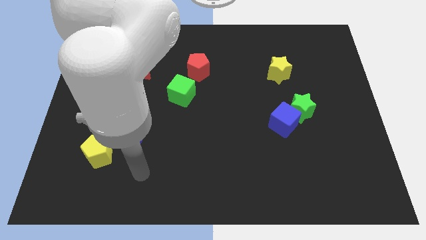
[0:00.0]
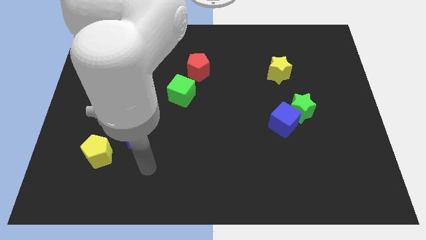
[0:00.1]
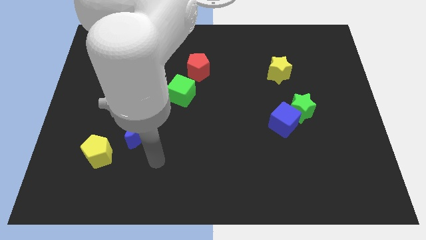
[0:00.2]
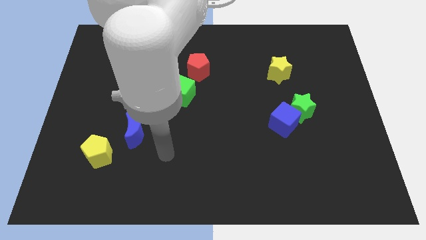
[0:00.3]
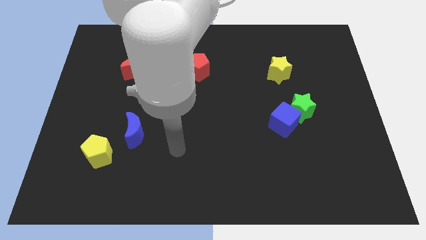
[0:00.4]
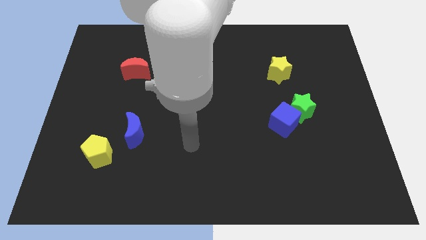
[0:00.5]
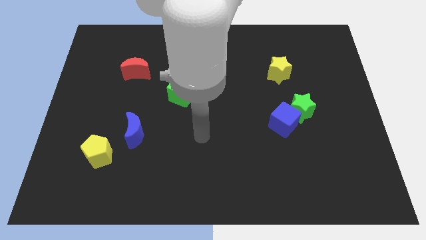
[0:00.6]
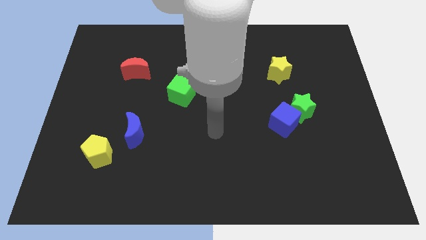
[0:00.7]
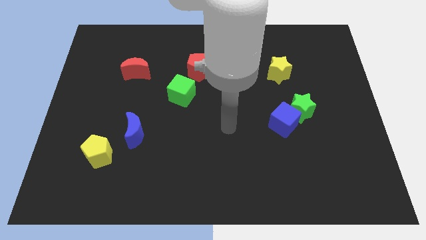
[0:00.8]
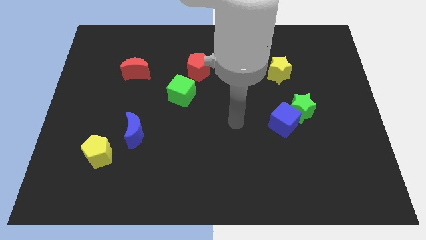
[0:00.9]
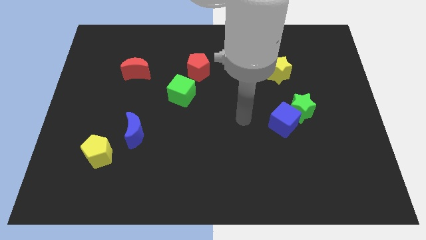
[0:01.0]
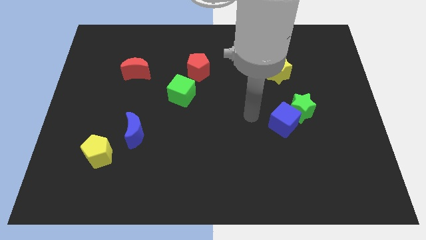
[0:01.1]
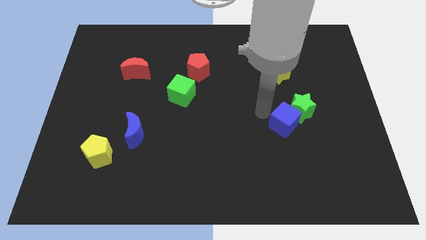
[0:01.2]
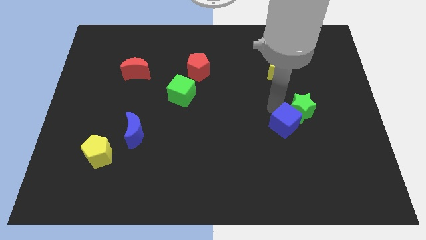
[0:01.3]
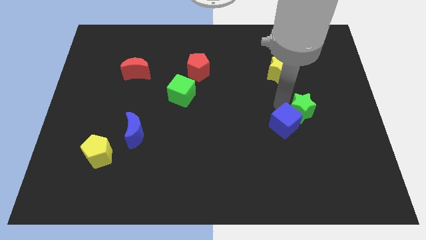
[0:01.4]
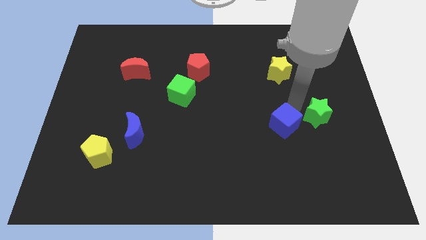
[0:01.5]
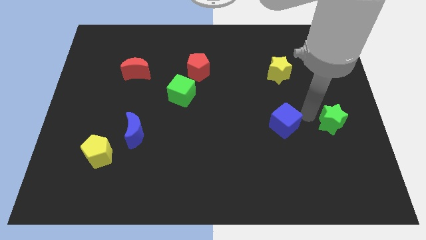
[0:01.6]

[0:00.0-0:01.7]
move the blue cube away from the green star

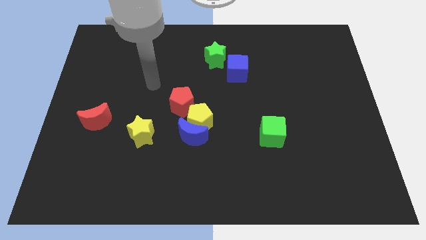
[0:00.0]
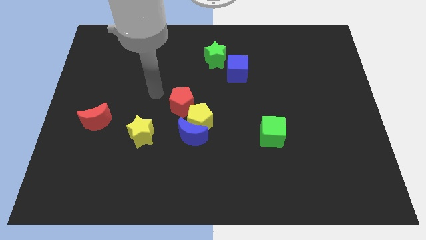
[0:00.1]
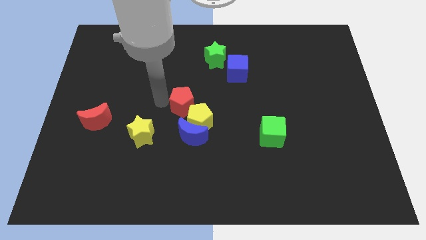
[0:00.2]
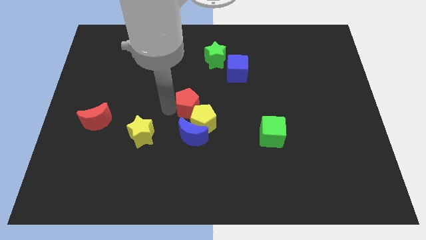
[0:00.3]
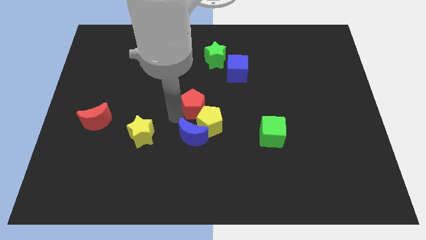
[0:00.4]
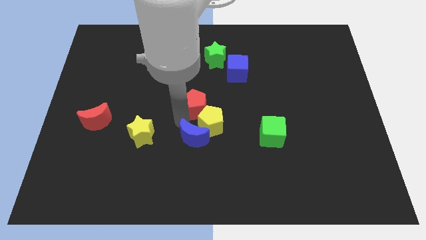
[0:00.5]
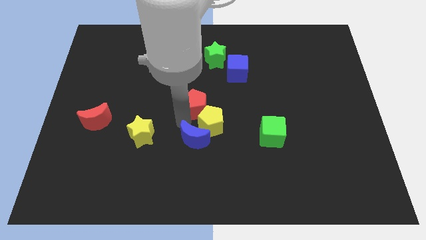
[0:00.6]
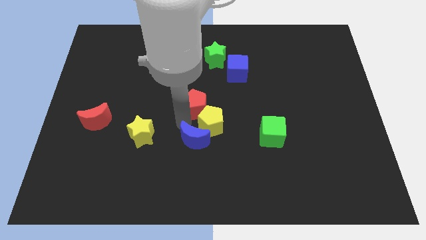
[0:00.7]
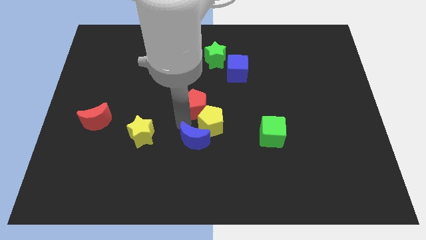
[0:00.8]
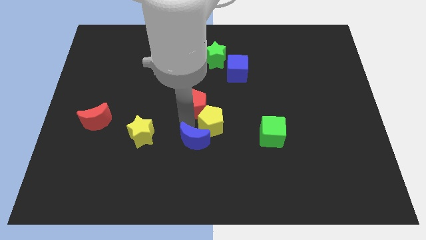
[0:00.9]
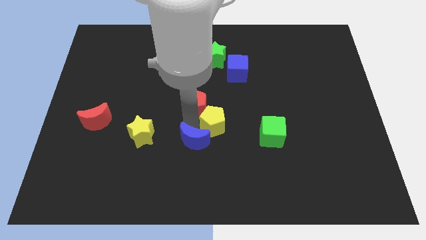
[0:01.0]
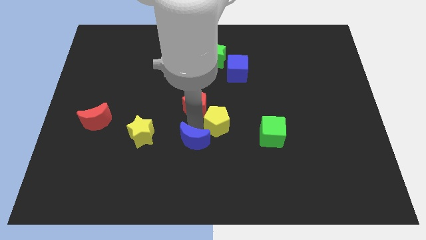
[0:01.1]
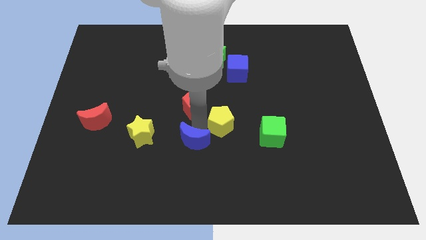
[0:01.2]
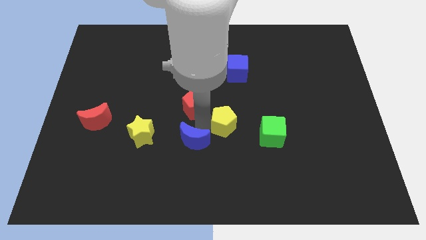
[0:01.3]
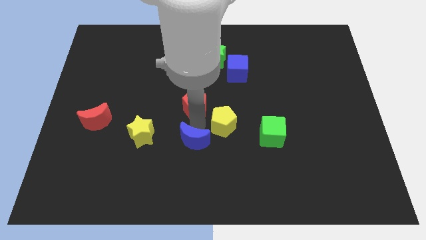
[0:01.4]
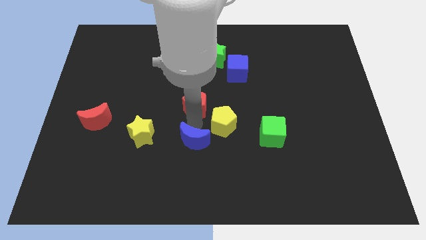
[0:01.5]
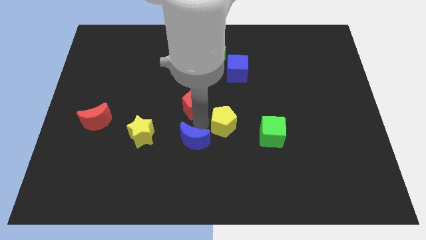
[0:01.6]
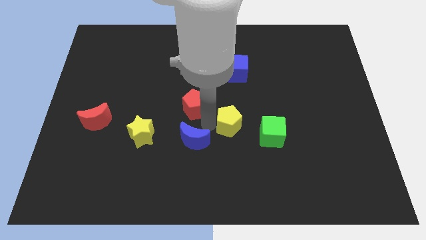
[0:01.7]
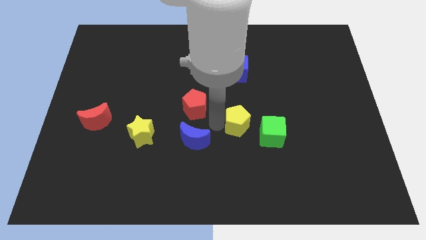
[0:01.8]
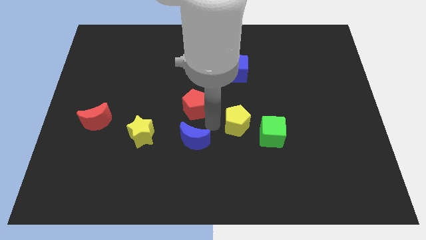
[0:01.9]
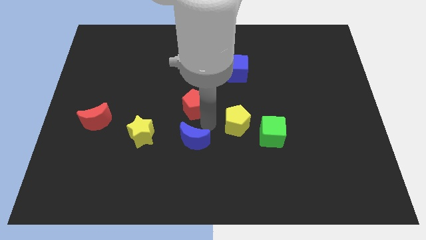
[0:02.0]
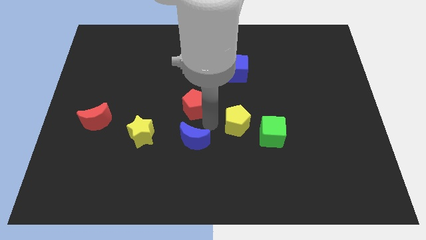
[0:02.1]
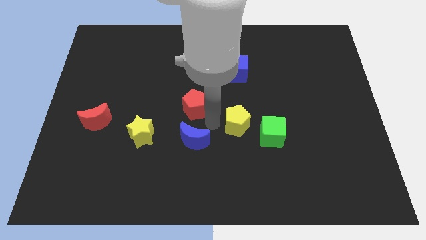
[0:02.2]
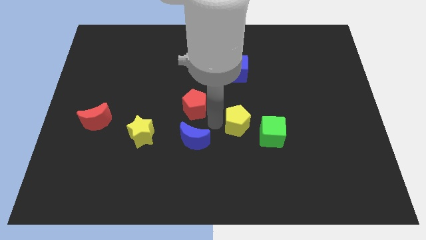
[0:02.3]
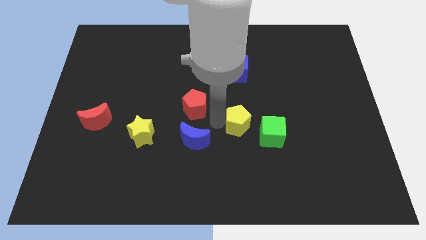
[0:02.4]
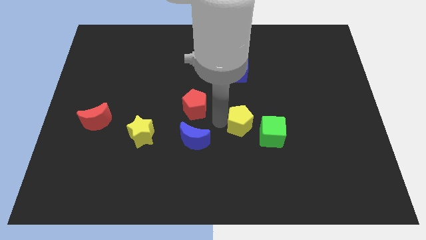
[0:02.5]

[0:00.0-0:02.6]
pull the yellow pentagon apart from the blue moon and red pentagon

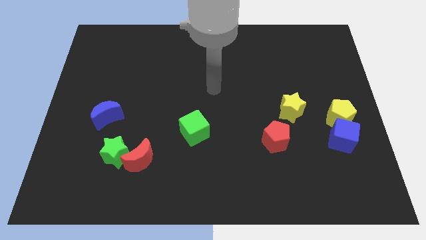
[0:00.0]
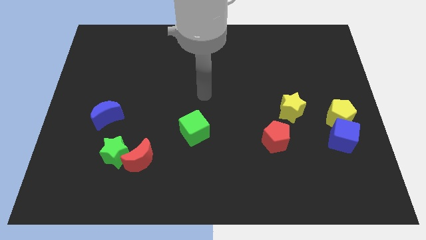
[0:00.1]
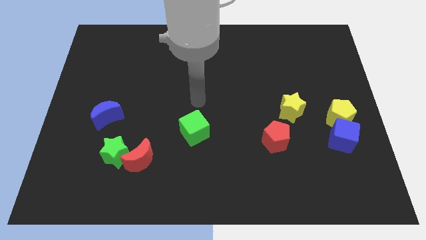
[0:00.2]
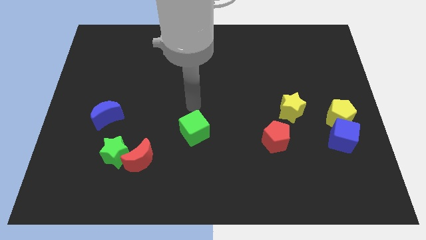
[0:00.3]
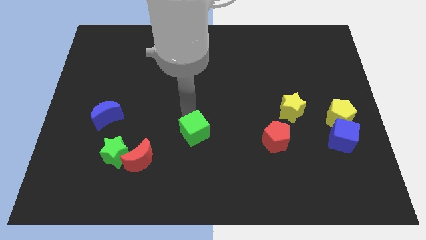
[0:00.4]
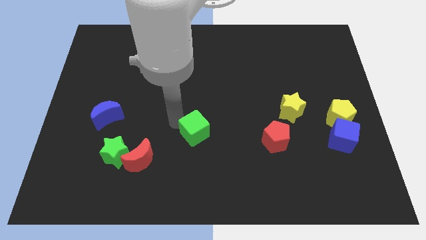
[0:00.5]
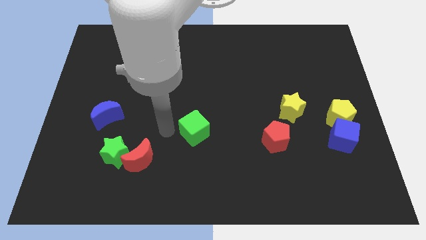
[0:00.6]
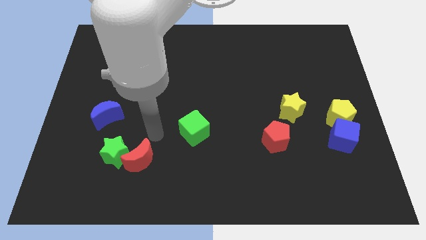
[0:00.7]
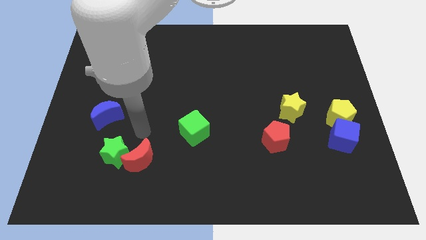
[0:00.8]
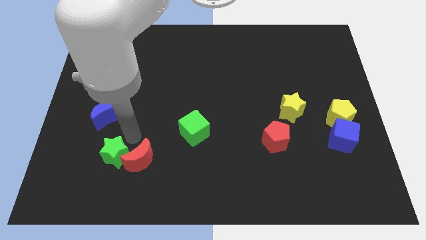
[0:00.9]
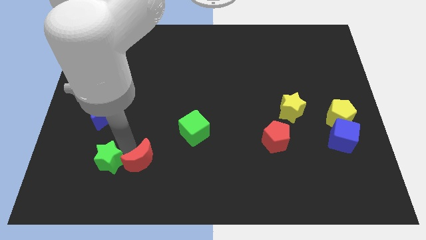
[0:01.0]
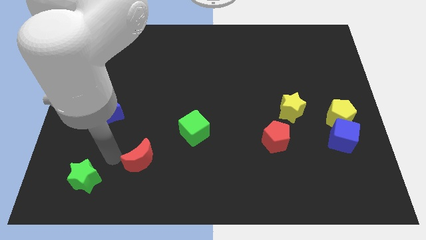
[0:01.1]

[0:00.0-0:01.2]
move the red moon away from the green star

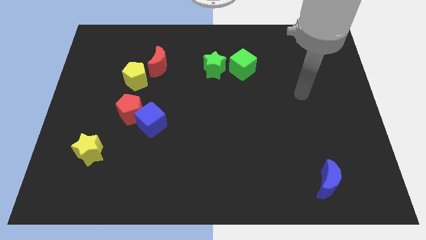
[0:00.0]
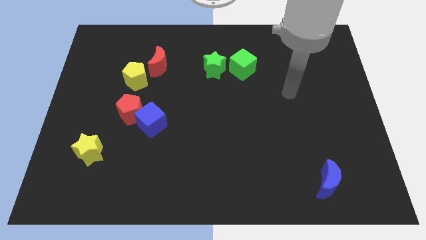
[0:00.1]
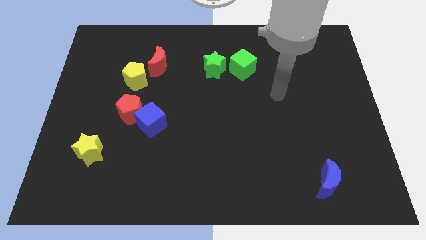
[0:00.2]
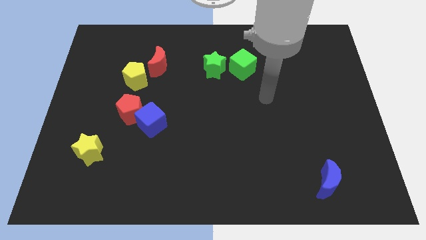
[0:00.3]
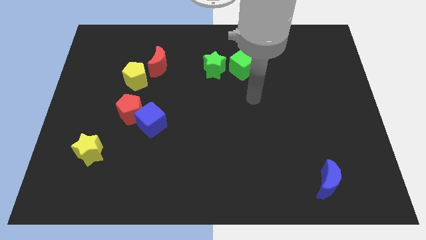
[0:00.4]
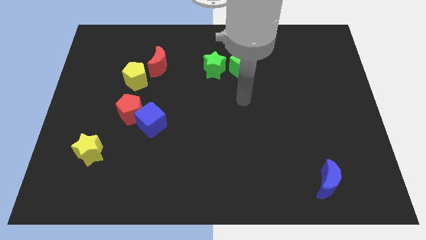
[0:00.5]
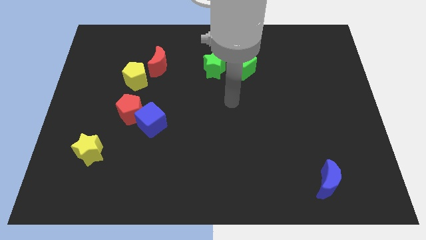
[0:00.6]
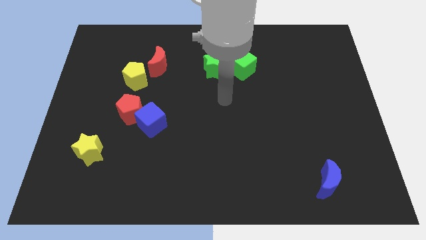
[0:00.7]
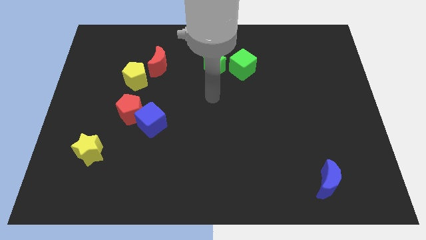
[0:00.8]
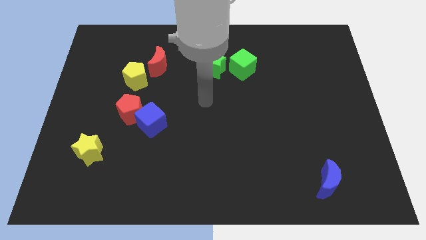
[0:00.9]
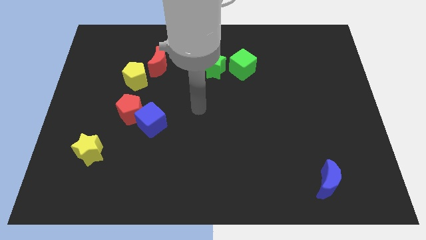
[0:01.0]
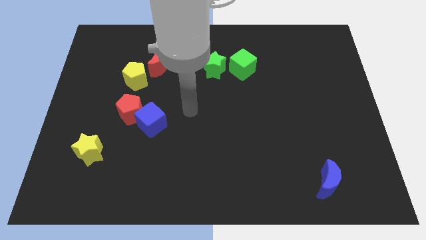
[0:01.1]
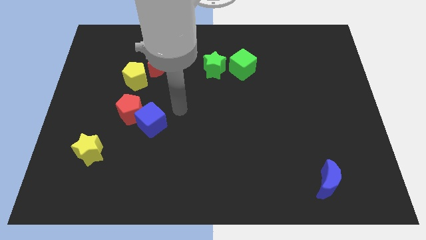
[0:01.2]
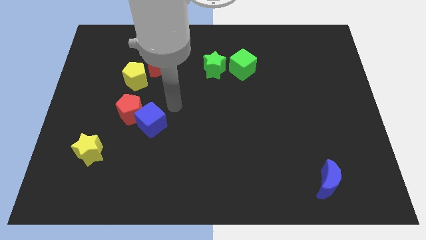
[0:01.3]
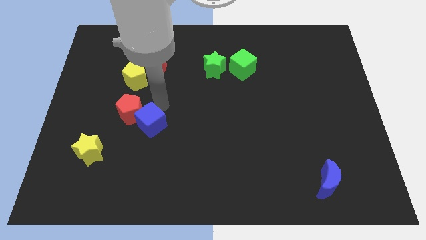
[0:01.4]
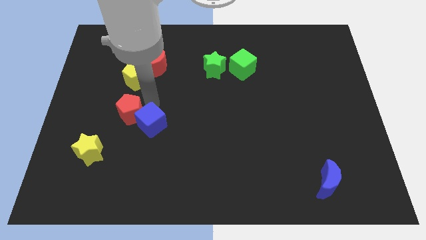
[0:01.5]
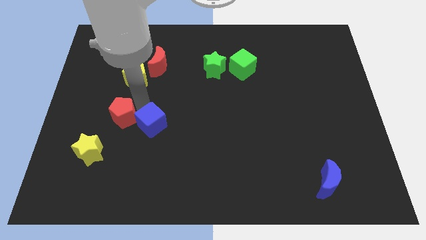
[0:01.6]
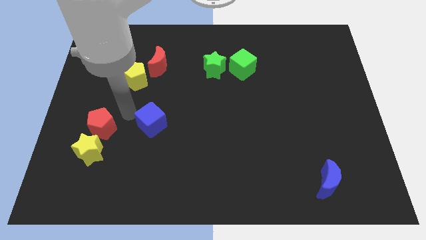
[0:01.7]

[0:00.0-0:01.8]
pull the blue cube apart from the red pentagon

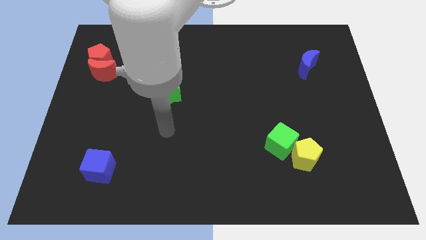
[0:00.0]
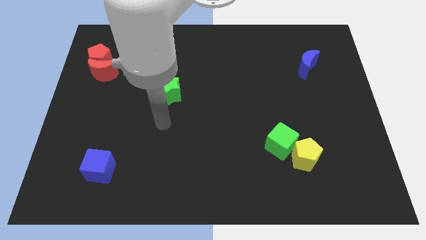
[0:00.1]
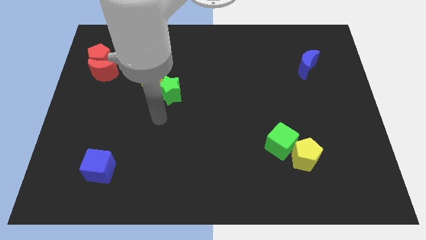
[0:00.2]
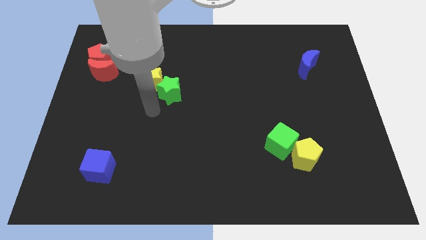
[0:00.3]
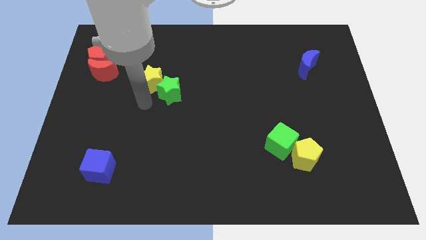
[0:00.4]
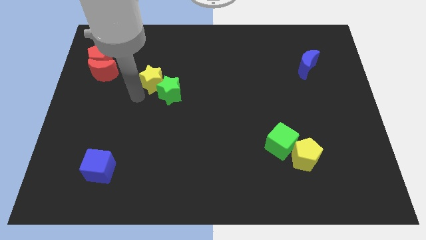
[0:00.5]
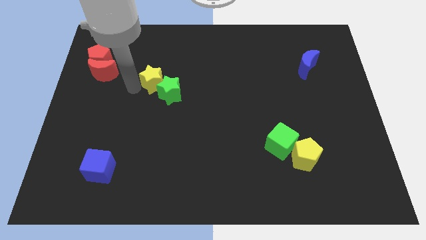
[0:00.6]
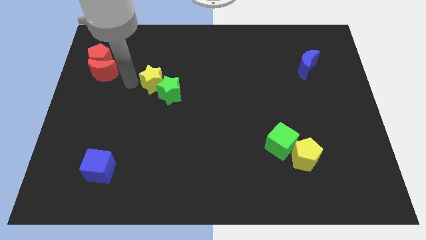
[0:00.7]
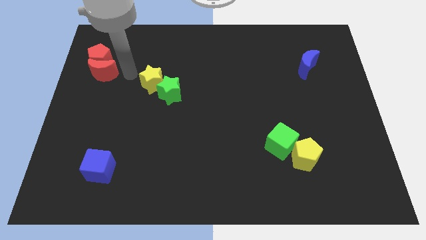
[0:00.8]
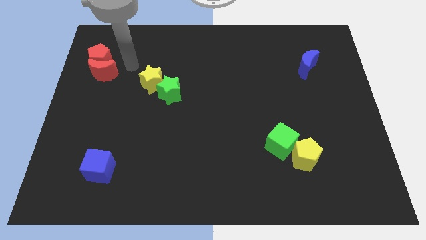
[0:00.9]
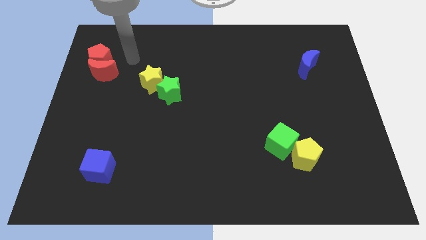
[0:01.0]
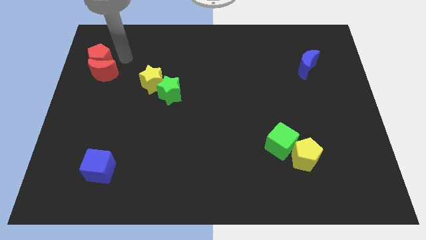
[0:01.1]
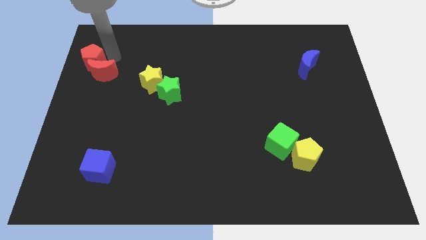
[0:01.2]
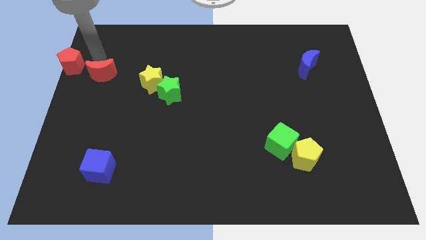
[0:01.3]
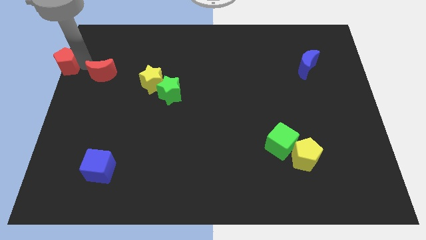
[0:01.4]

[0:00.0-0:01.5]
move the red moon away from the red pentagon

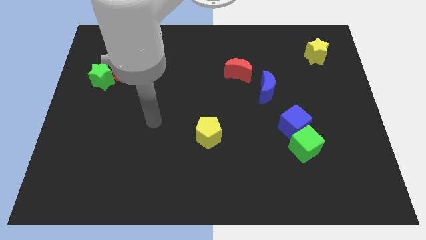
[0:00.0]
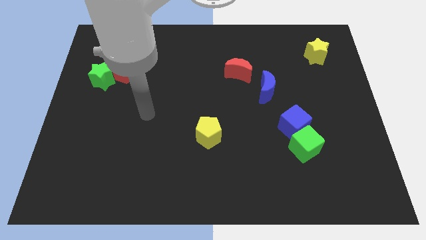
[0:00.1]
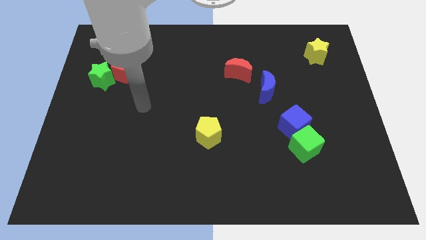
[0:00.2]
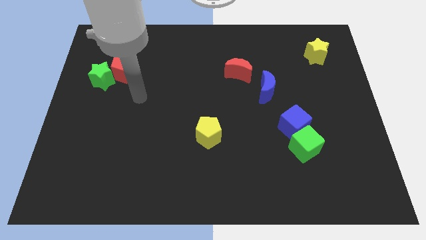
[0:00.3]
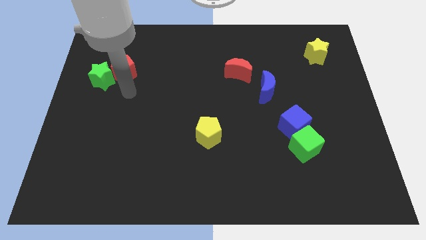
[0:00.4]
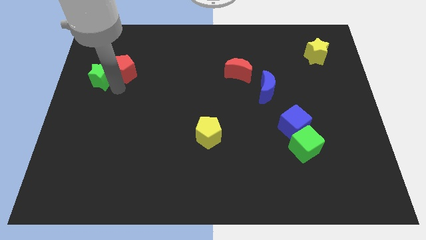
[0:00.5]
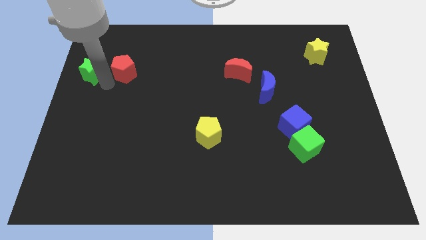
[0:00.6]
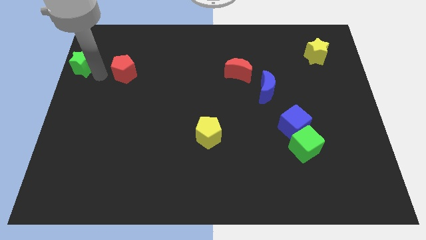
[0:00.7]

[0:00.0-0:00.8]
separate the red pentagon from the green star
